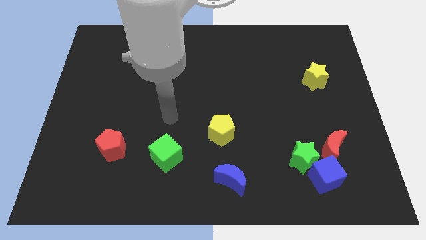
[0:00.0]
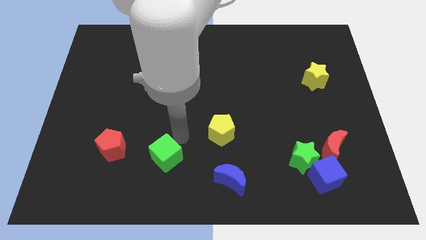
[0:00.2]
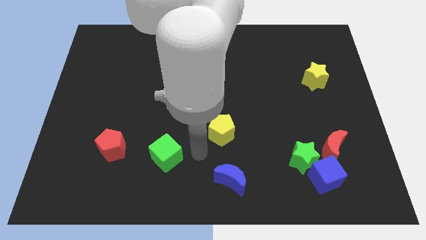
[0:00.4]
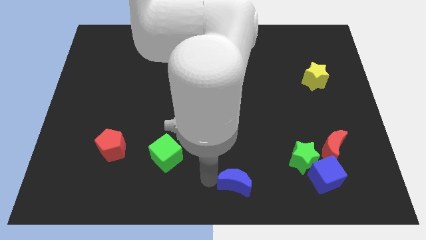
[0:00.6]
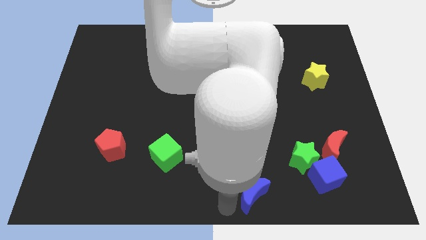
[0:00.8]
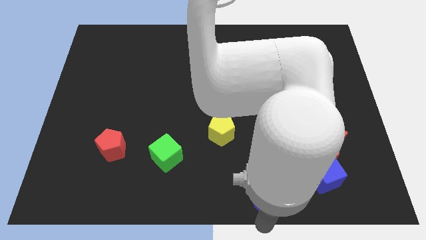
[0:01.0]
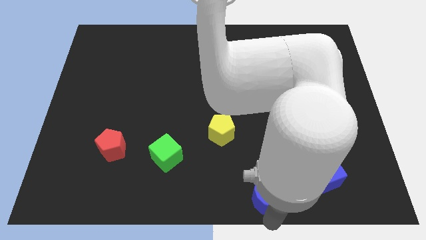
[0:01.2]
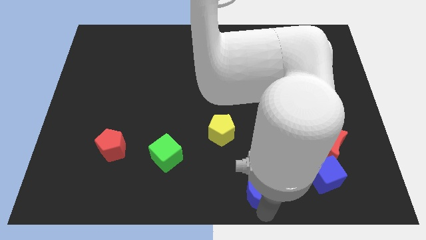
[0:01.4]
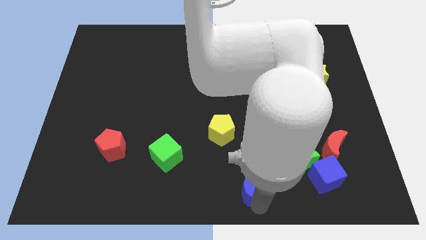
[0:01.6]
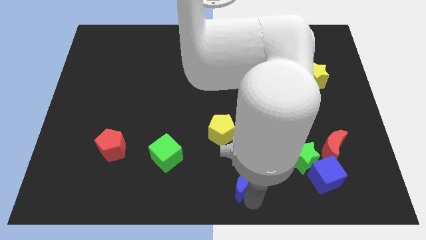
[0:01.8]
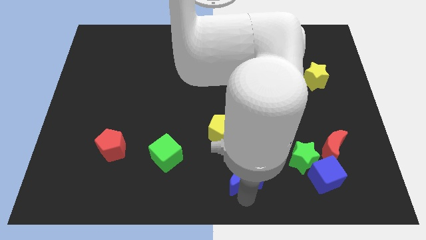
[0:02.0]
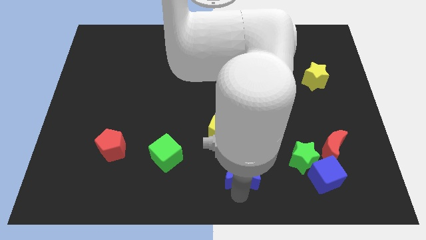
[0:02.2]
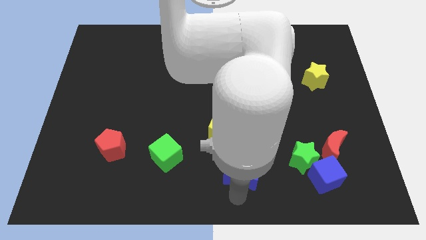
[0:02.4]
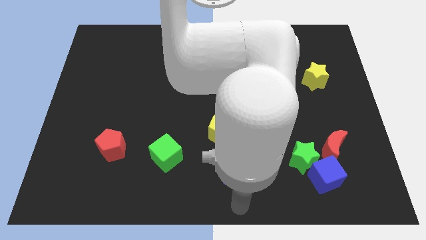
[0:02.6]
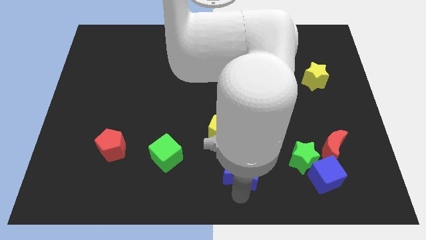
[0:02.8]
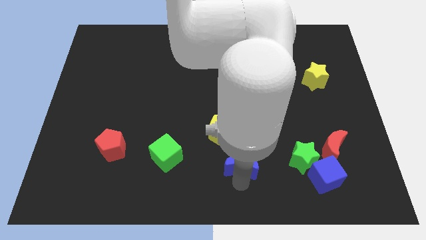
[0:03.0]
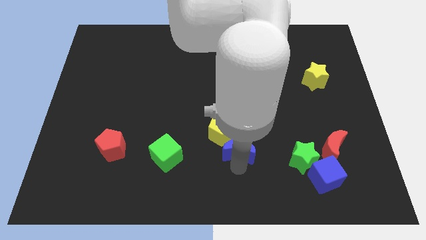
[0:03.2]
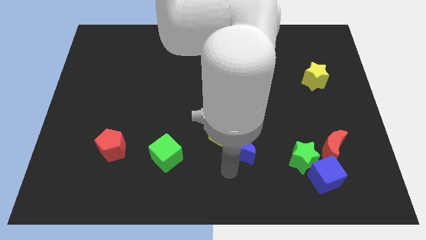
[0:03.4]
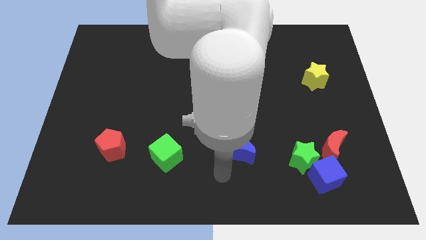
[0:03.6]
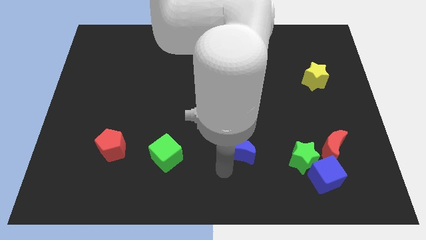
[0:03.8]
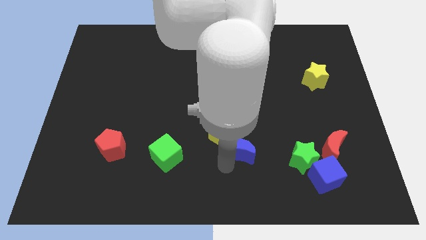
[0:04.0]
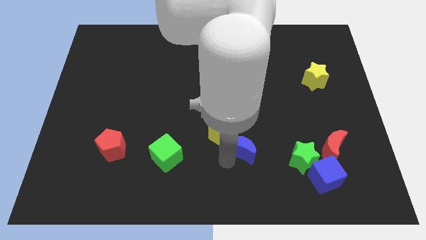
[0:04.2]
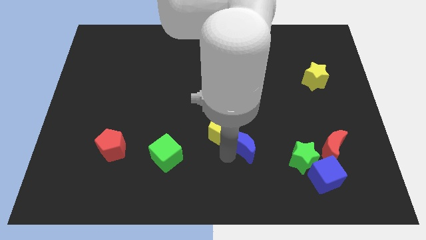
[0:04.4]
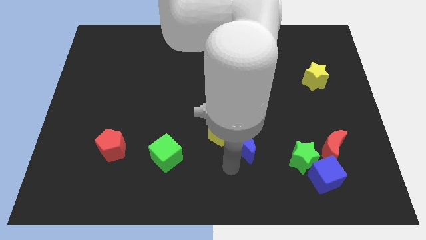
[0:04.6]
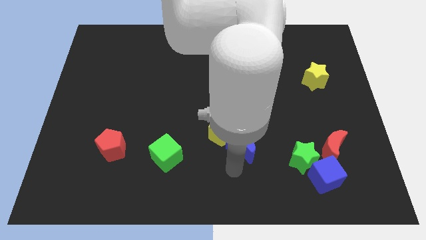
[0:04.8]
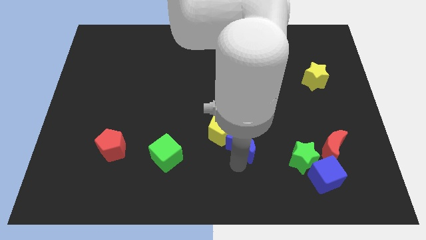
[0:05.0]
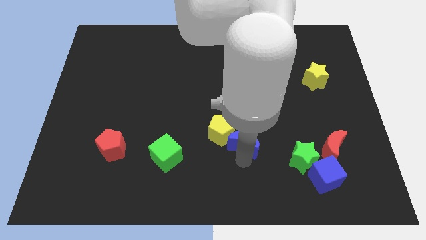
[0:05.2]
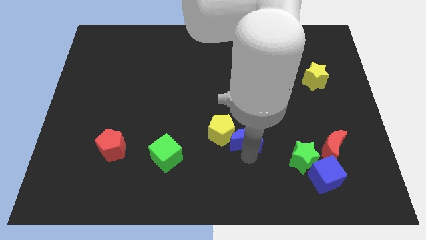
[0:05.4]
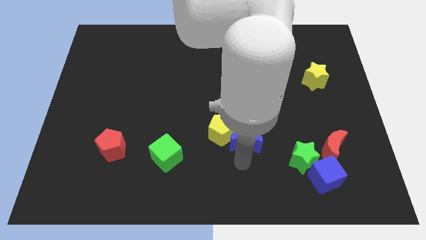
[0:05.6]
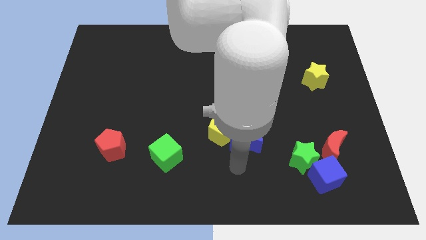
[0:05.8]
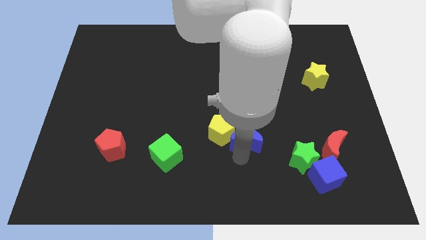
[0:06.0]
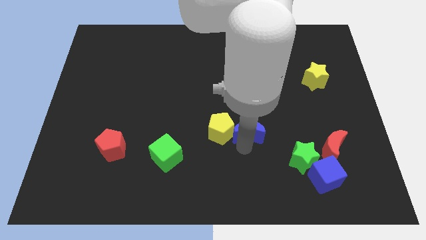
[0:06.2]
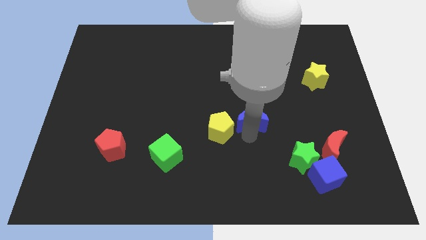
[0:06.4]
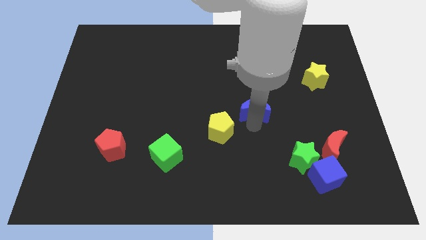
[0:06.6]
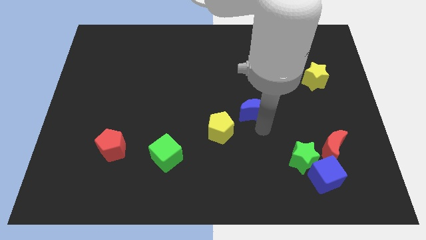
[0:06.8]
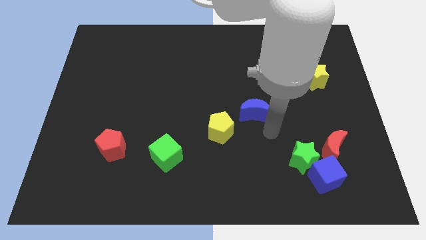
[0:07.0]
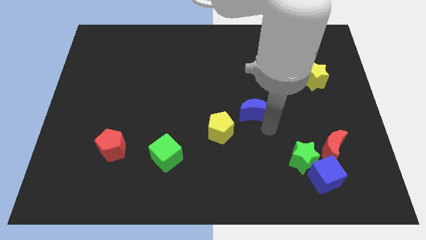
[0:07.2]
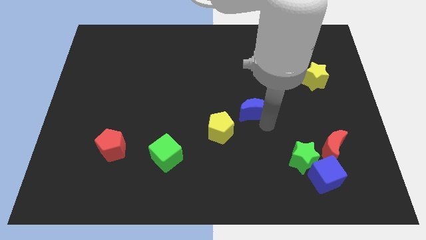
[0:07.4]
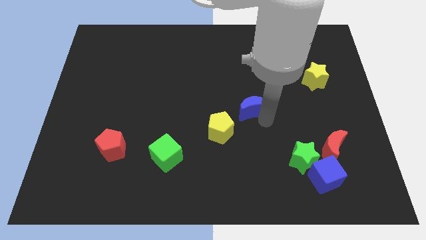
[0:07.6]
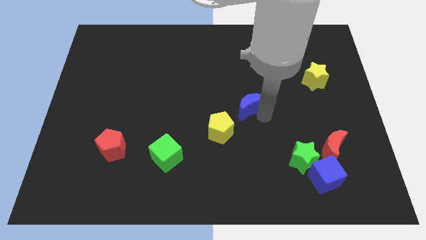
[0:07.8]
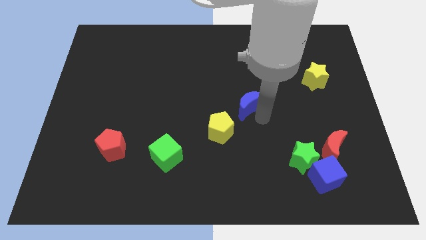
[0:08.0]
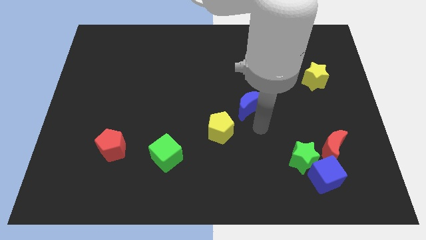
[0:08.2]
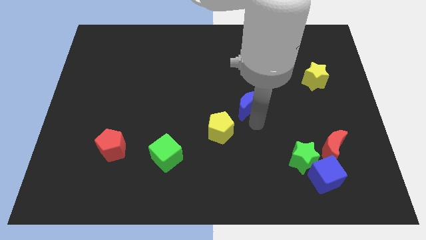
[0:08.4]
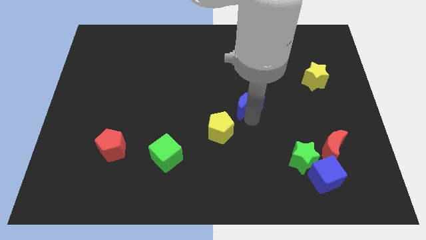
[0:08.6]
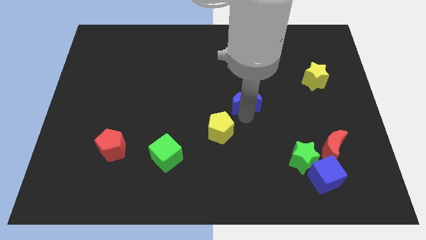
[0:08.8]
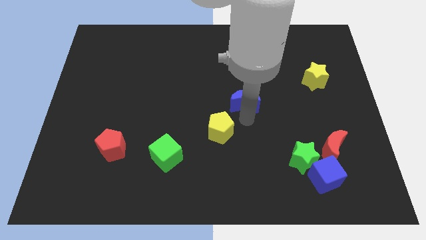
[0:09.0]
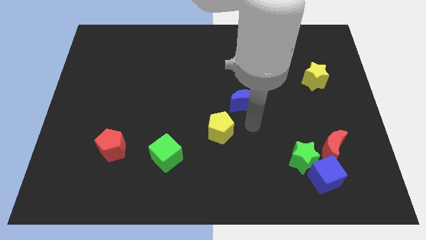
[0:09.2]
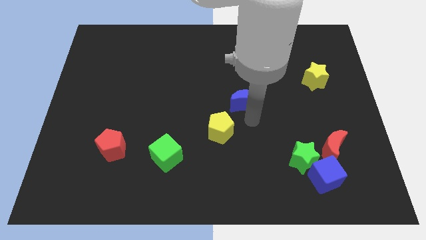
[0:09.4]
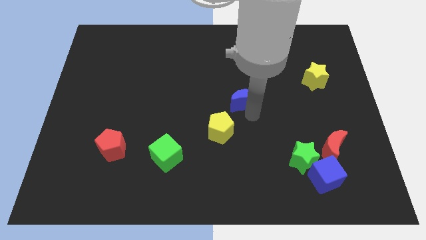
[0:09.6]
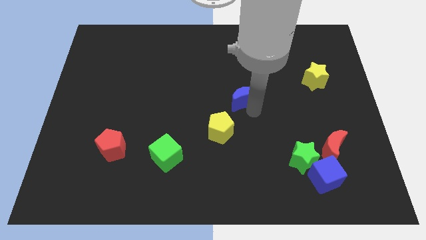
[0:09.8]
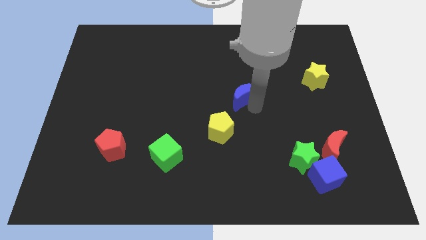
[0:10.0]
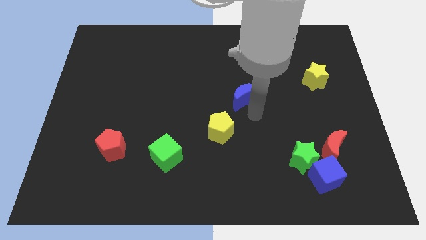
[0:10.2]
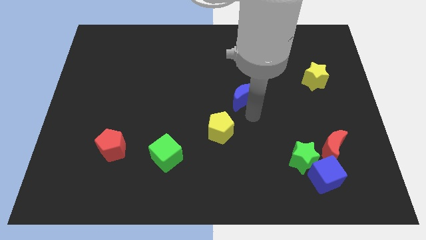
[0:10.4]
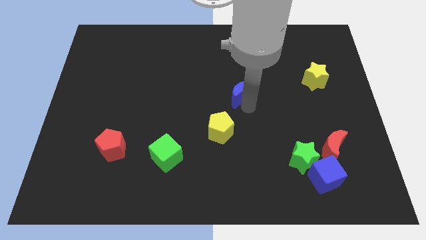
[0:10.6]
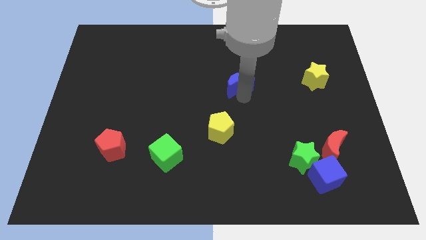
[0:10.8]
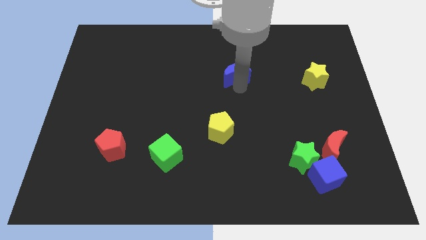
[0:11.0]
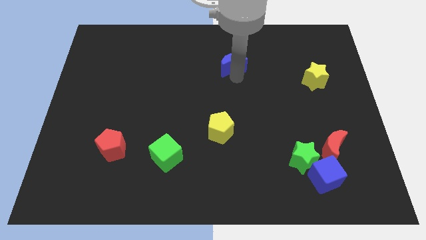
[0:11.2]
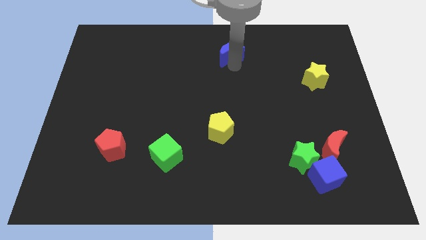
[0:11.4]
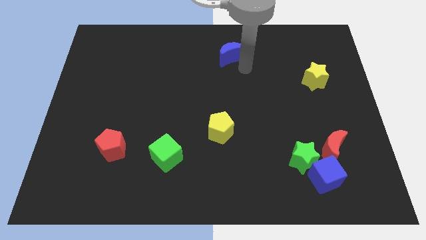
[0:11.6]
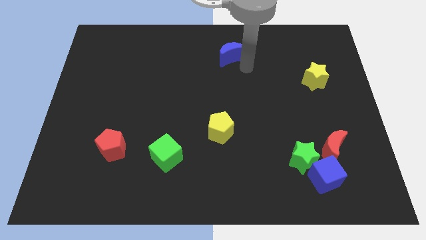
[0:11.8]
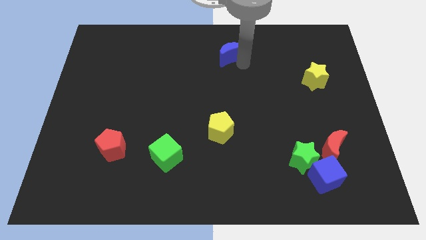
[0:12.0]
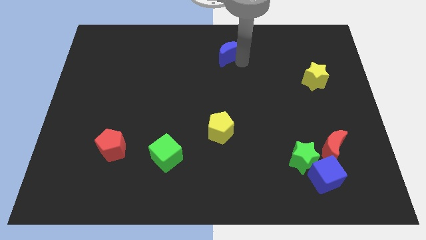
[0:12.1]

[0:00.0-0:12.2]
push the blue moon to the top

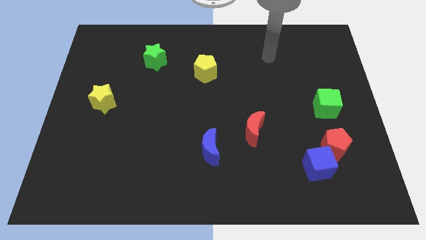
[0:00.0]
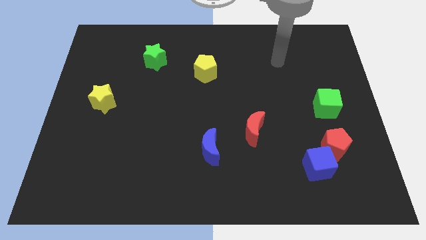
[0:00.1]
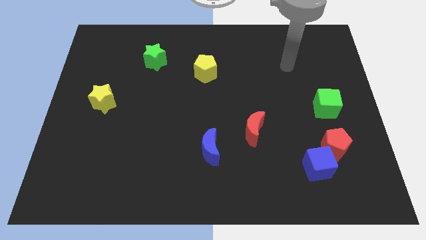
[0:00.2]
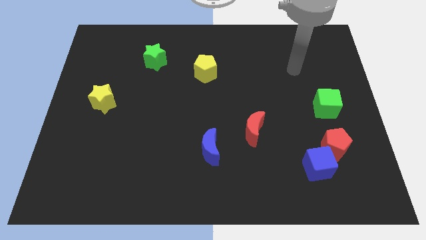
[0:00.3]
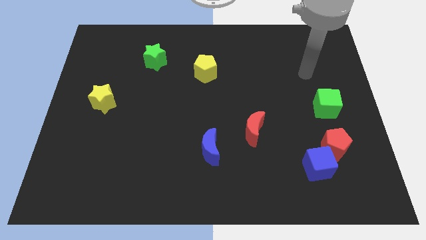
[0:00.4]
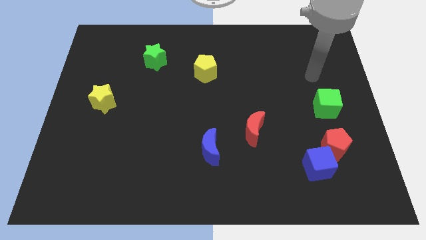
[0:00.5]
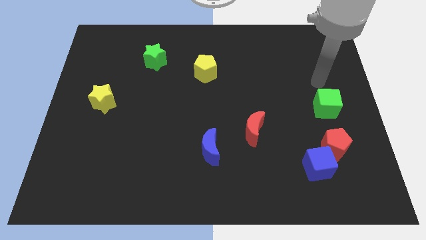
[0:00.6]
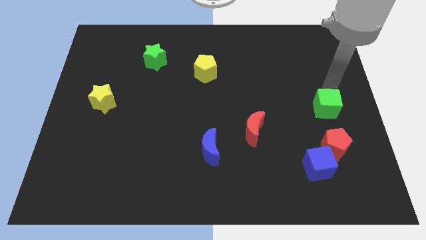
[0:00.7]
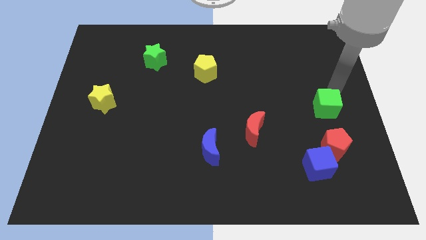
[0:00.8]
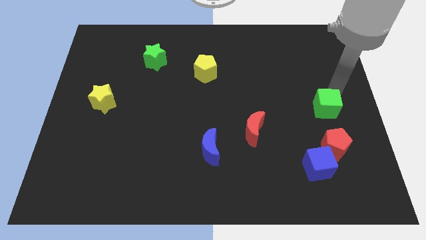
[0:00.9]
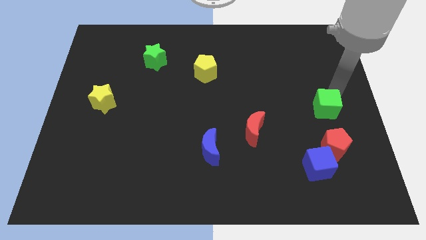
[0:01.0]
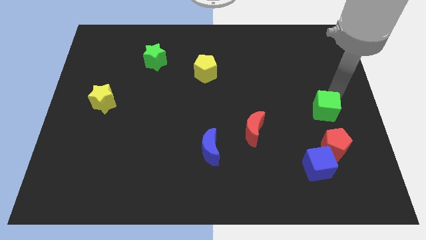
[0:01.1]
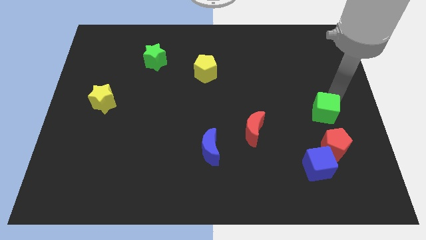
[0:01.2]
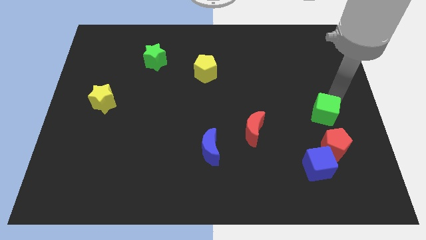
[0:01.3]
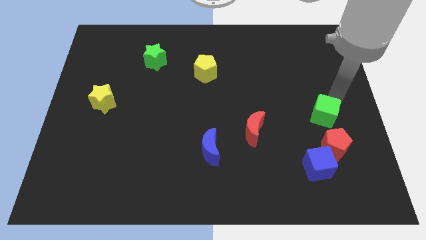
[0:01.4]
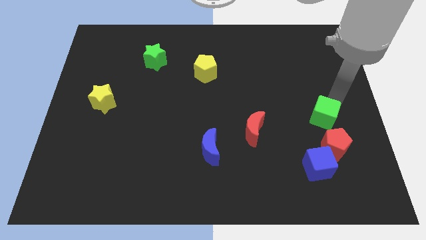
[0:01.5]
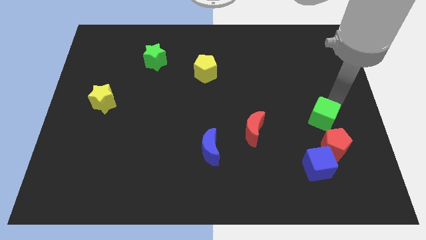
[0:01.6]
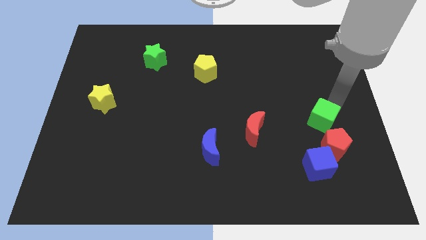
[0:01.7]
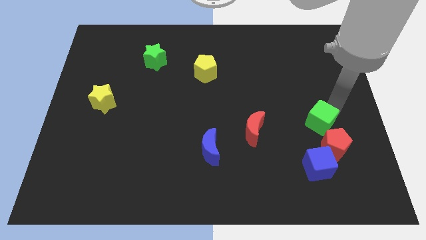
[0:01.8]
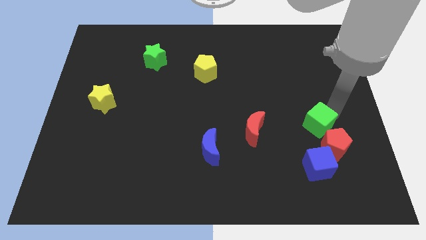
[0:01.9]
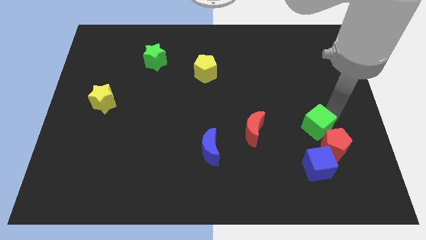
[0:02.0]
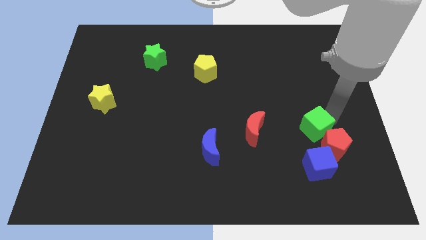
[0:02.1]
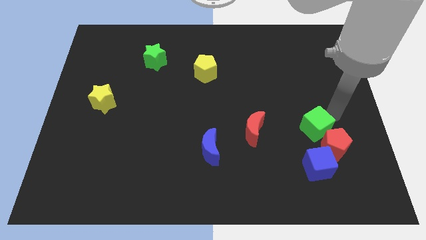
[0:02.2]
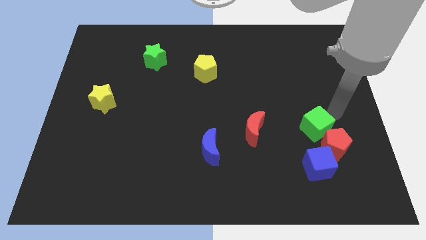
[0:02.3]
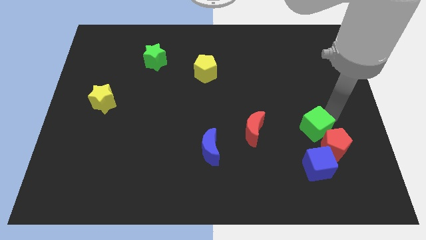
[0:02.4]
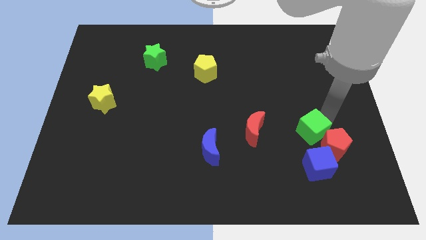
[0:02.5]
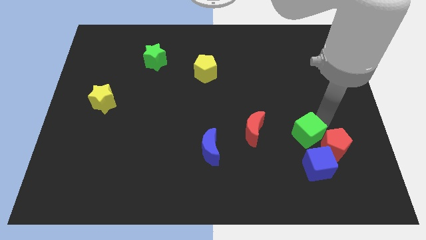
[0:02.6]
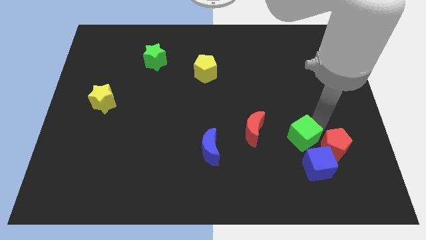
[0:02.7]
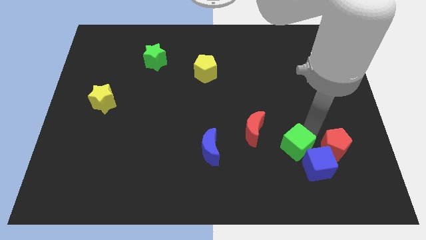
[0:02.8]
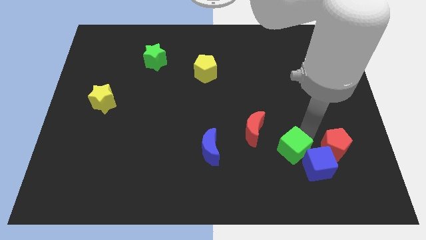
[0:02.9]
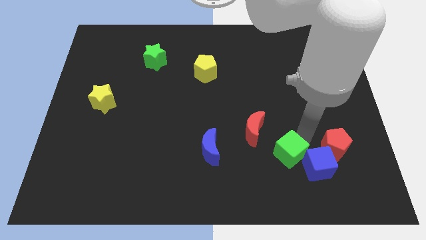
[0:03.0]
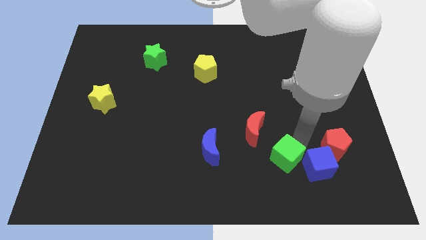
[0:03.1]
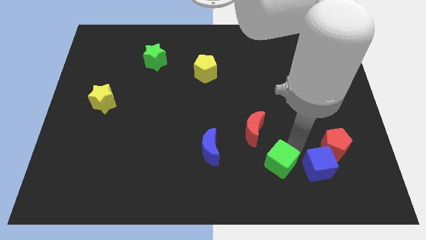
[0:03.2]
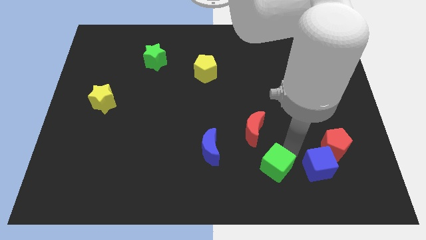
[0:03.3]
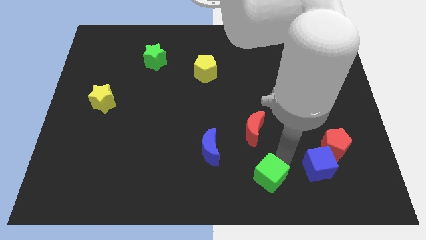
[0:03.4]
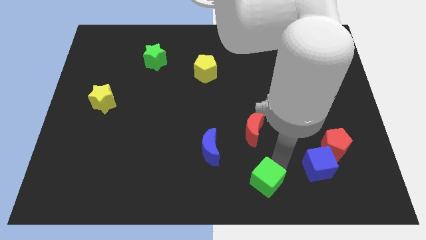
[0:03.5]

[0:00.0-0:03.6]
put the green cube to the bottom side
